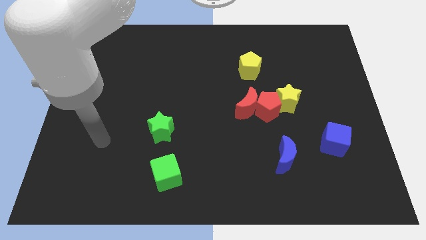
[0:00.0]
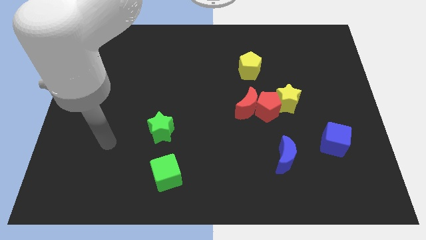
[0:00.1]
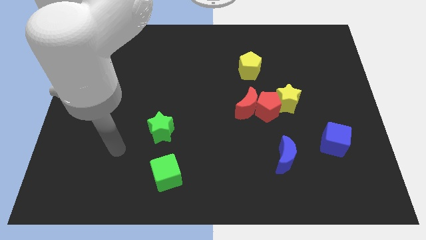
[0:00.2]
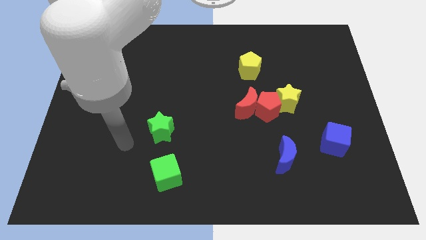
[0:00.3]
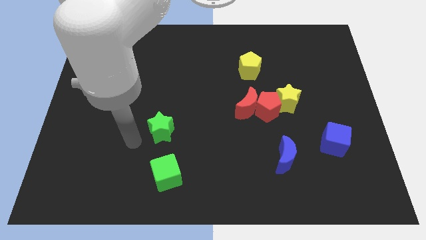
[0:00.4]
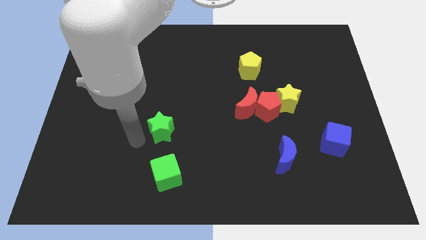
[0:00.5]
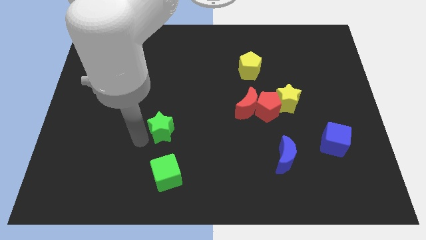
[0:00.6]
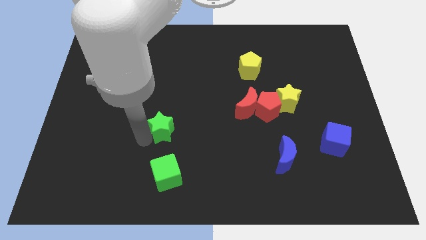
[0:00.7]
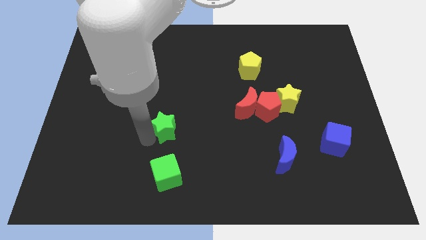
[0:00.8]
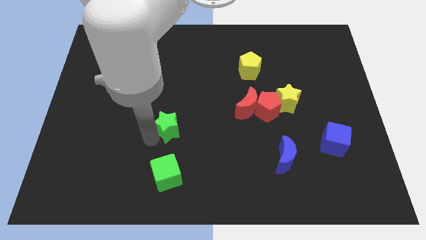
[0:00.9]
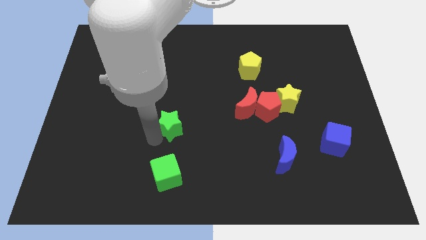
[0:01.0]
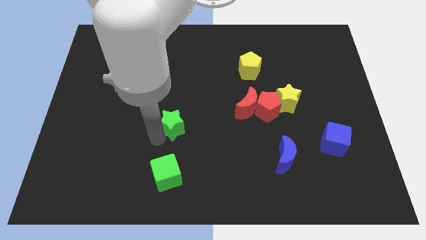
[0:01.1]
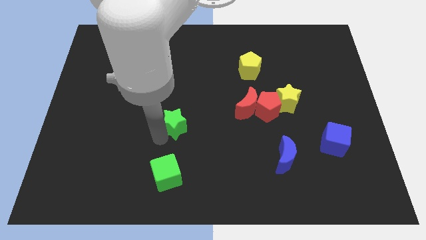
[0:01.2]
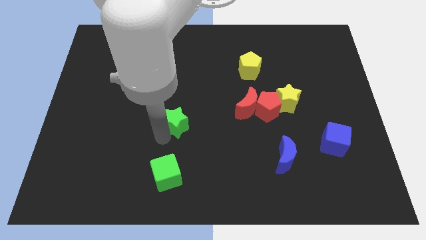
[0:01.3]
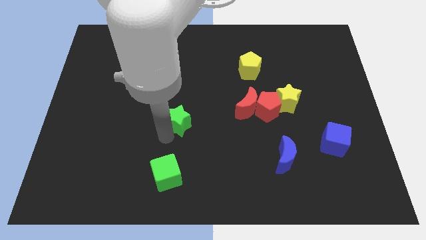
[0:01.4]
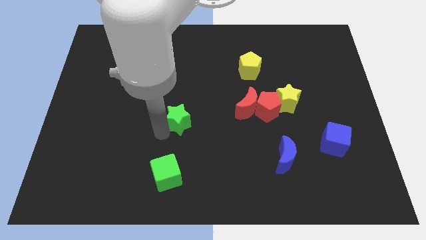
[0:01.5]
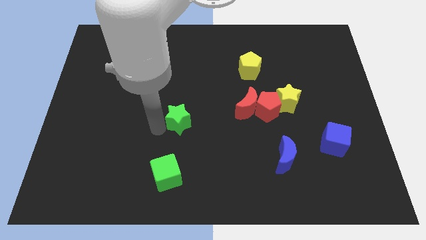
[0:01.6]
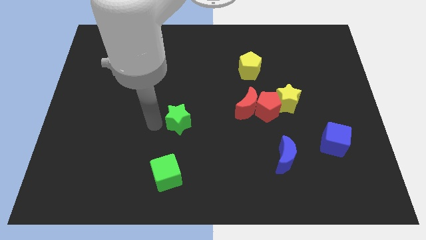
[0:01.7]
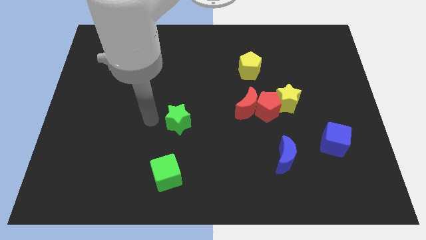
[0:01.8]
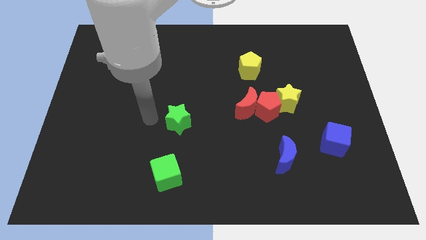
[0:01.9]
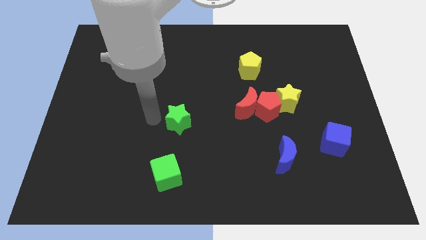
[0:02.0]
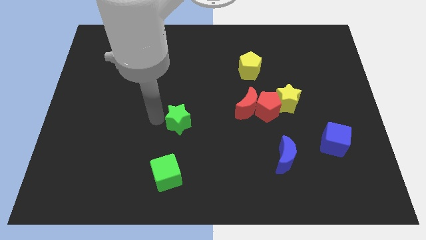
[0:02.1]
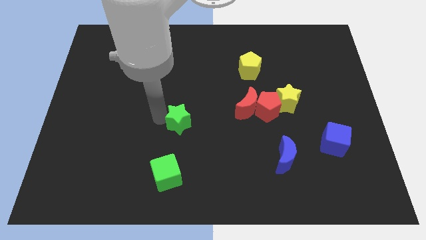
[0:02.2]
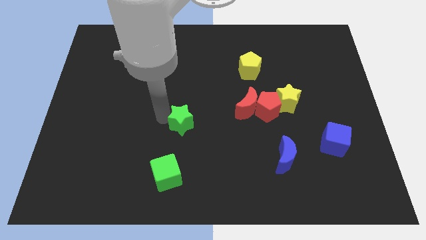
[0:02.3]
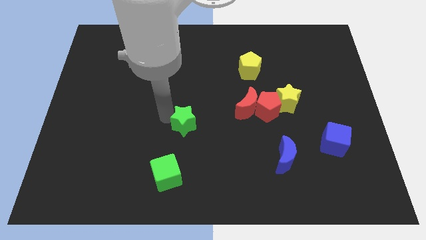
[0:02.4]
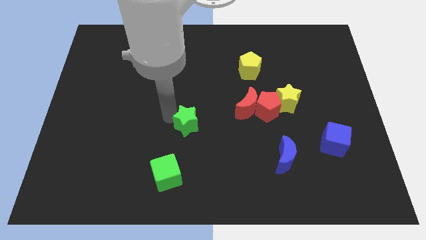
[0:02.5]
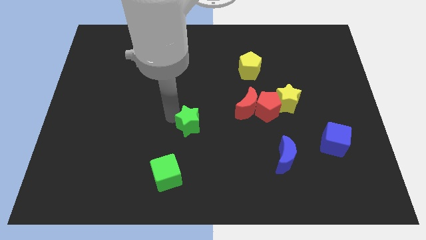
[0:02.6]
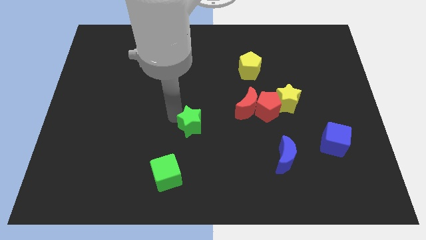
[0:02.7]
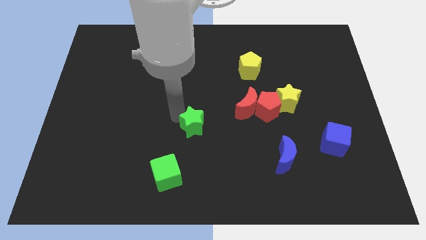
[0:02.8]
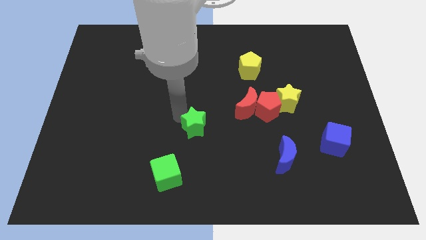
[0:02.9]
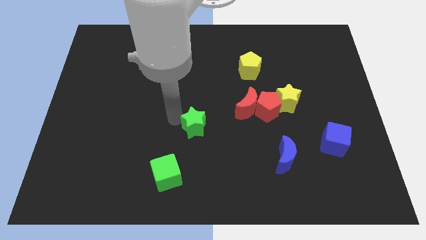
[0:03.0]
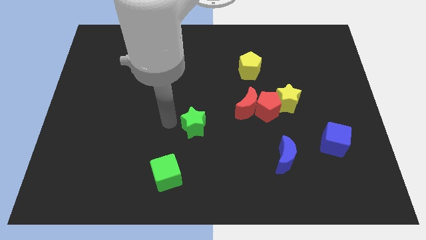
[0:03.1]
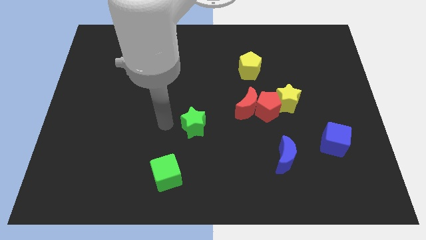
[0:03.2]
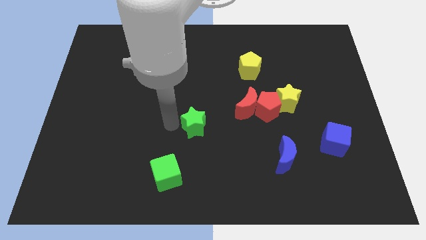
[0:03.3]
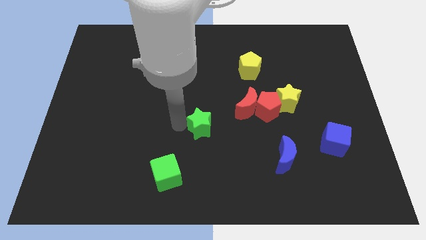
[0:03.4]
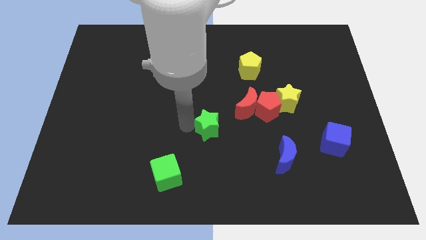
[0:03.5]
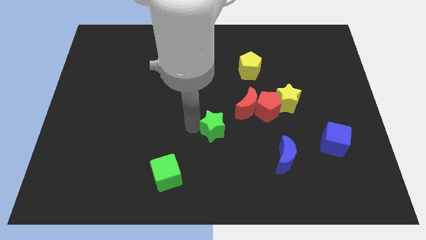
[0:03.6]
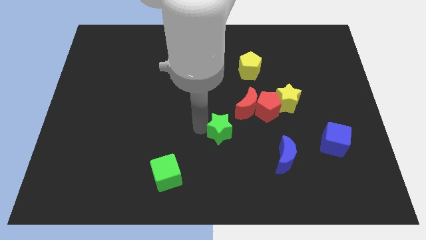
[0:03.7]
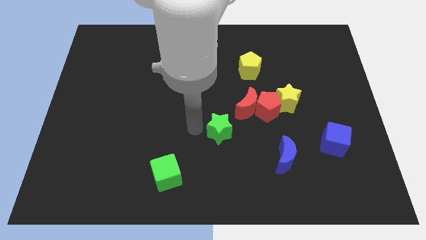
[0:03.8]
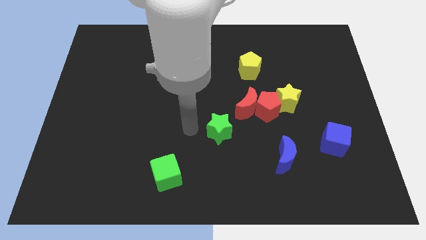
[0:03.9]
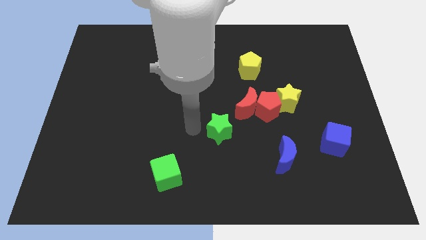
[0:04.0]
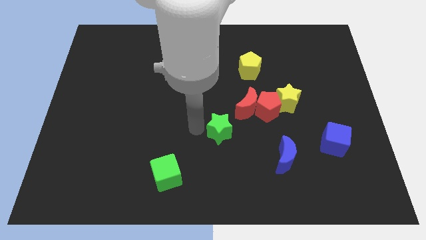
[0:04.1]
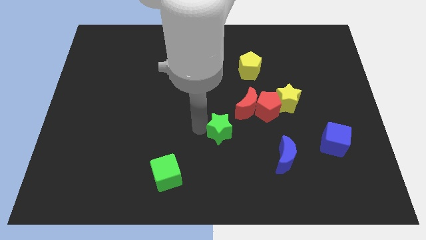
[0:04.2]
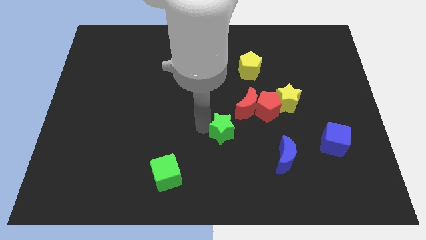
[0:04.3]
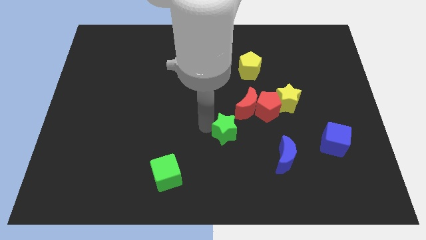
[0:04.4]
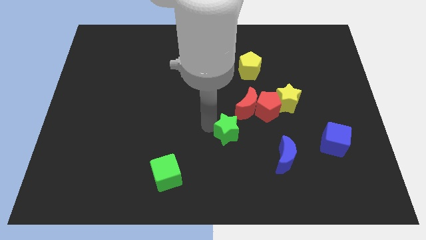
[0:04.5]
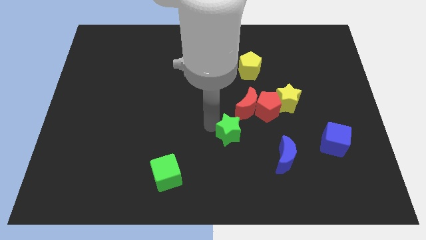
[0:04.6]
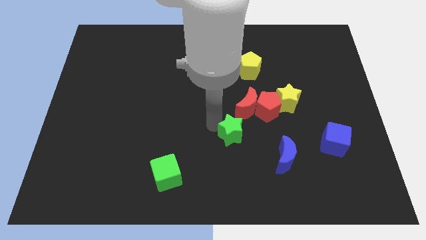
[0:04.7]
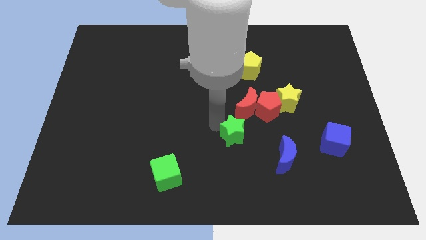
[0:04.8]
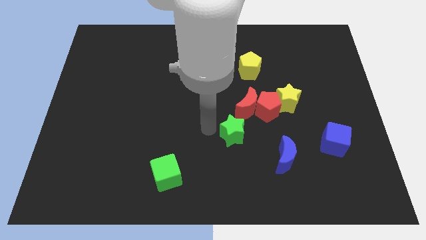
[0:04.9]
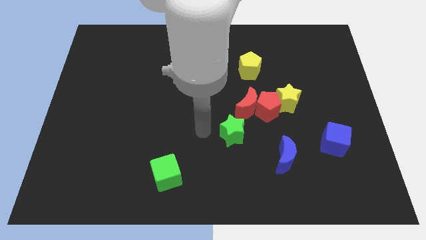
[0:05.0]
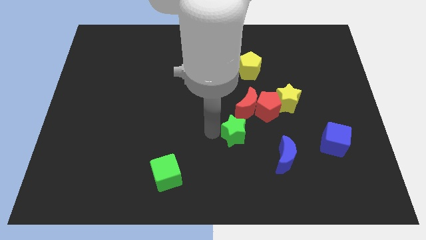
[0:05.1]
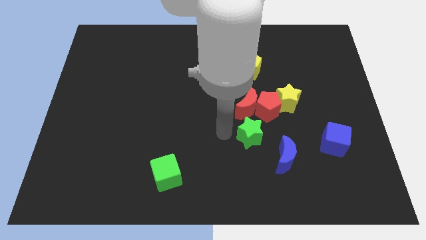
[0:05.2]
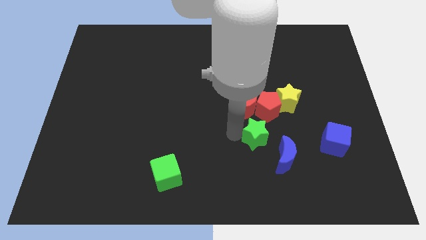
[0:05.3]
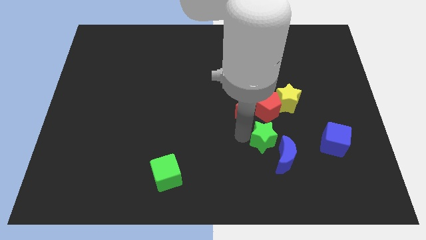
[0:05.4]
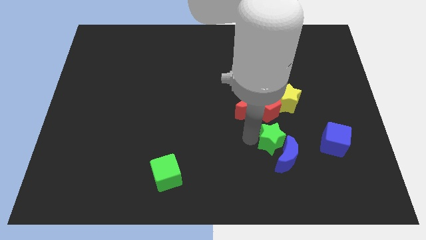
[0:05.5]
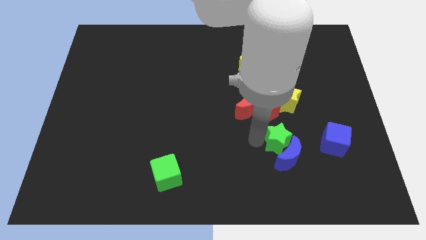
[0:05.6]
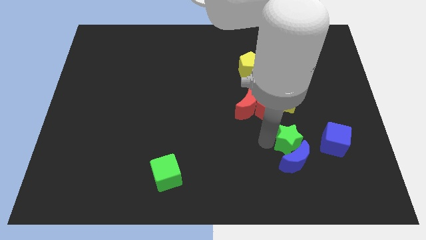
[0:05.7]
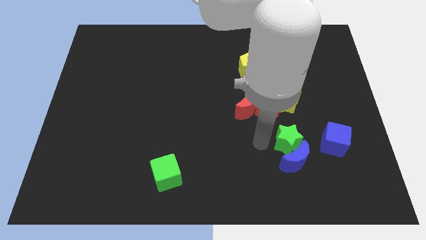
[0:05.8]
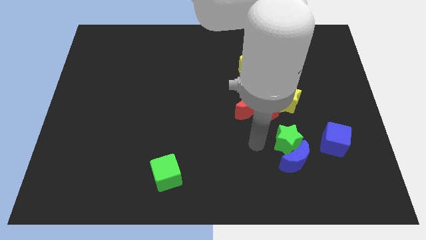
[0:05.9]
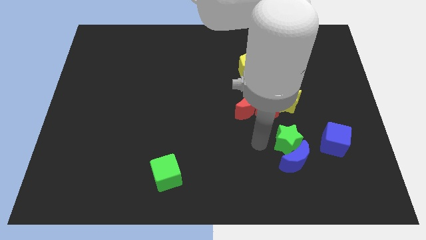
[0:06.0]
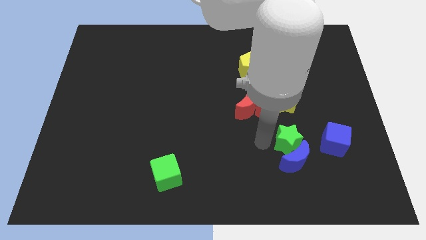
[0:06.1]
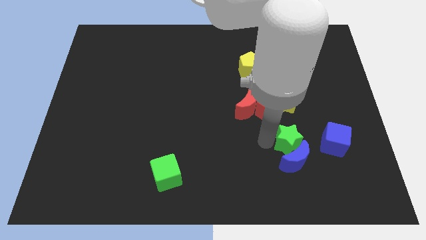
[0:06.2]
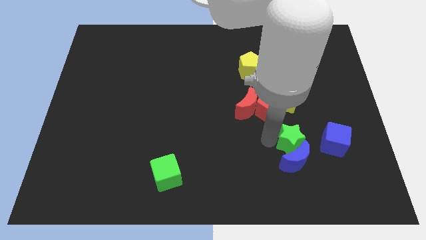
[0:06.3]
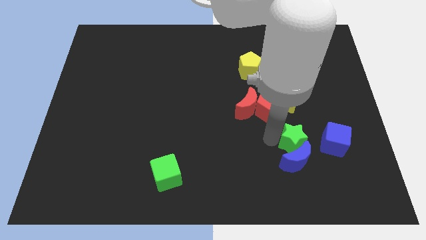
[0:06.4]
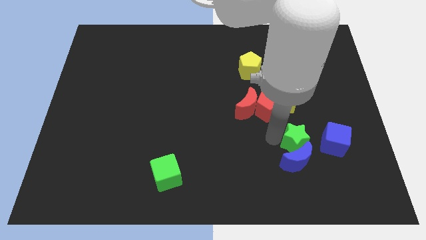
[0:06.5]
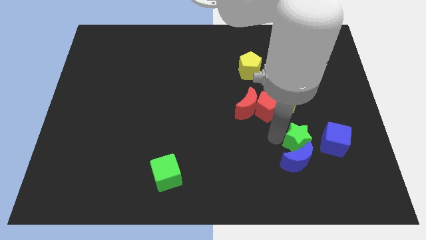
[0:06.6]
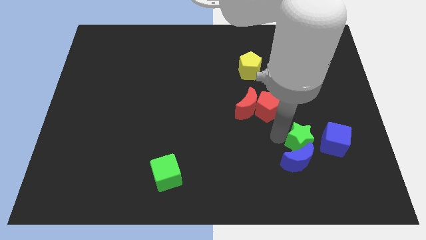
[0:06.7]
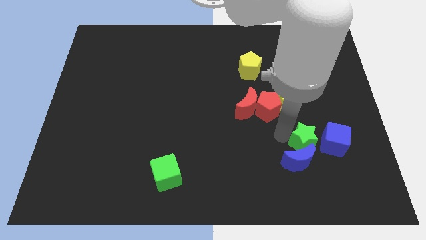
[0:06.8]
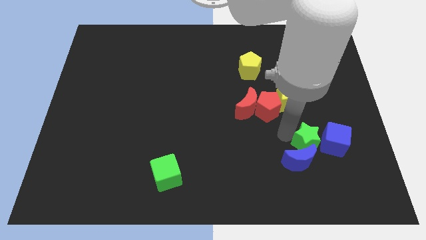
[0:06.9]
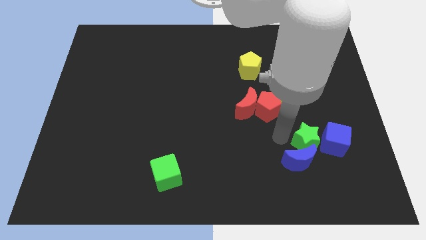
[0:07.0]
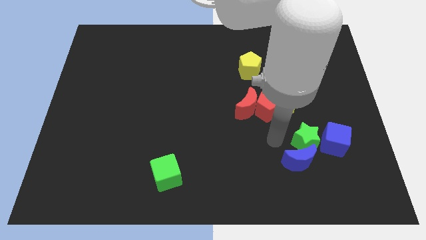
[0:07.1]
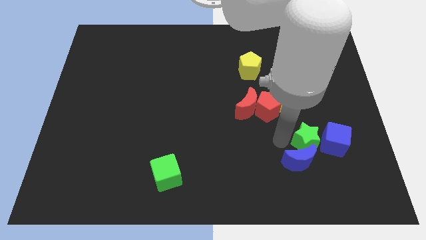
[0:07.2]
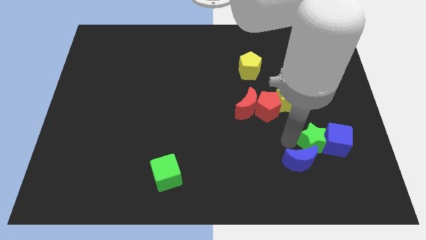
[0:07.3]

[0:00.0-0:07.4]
push the green star next to the blue cube
